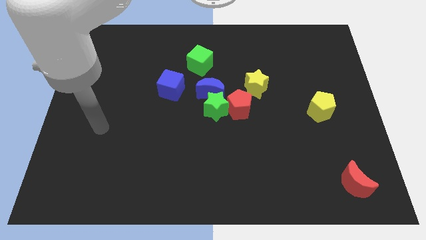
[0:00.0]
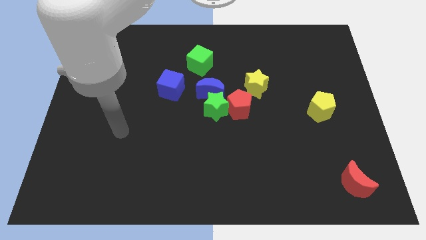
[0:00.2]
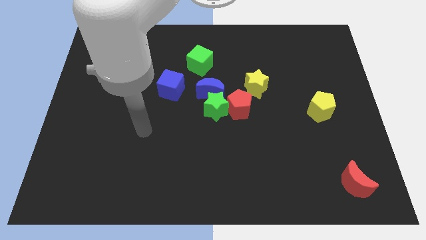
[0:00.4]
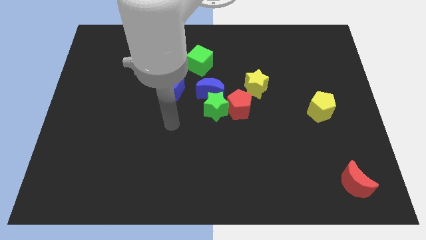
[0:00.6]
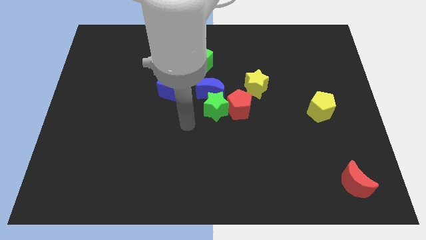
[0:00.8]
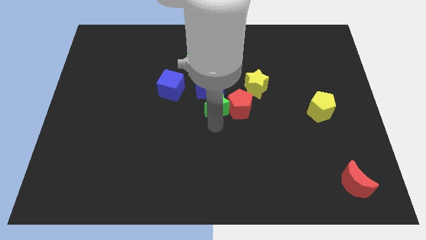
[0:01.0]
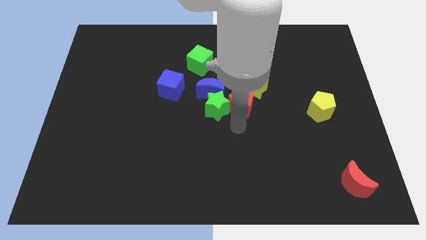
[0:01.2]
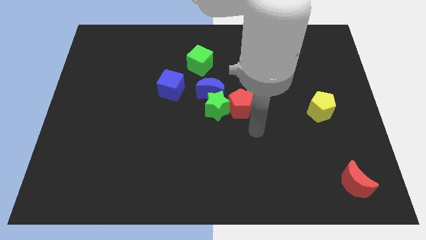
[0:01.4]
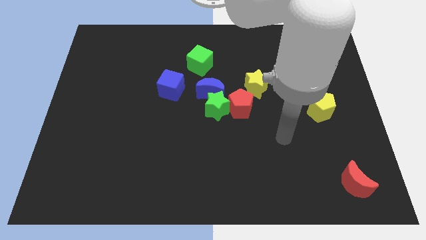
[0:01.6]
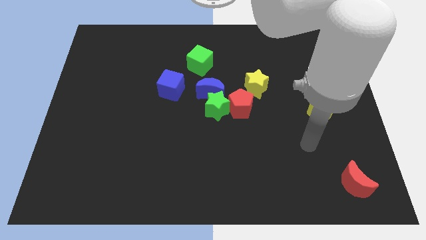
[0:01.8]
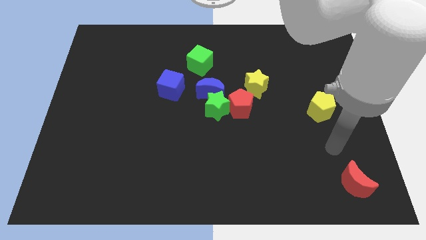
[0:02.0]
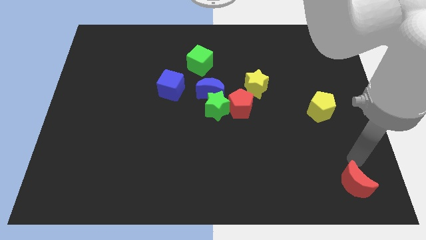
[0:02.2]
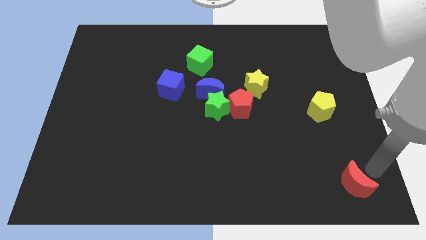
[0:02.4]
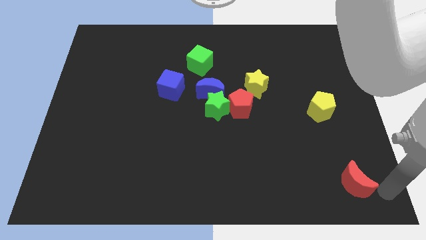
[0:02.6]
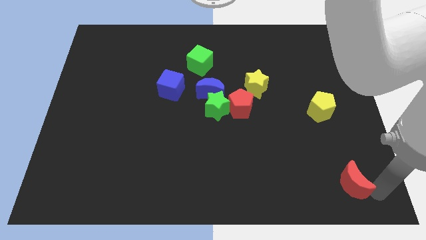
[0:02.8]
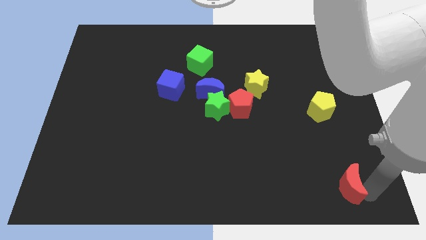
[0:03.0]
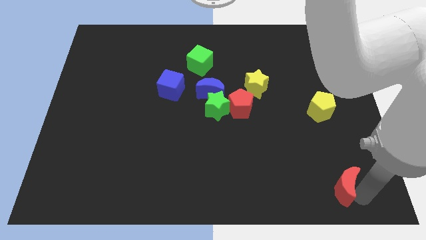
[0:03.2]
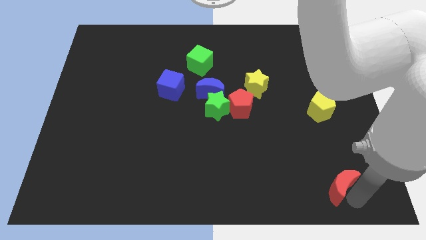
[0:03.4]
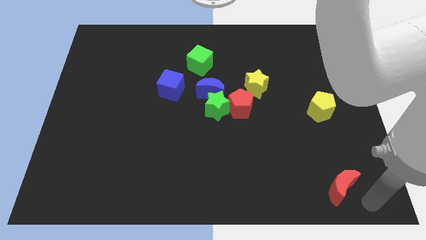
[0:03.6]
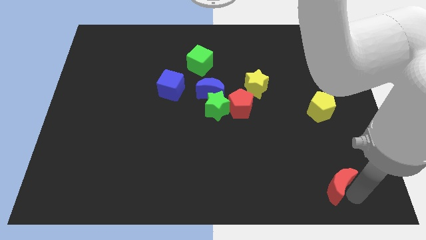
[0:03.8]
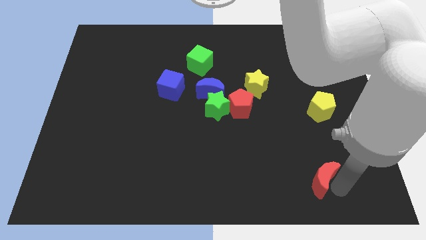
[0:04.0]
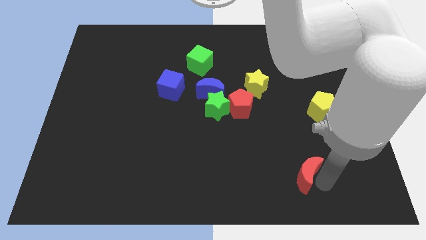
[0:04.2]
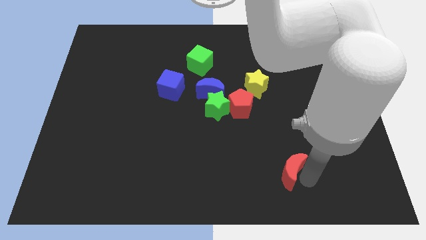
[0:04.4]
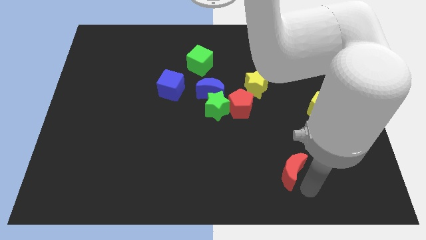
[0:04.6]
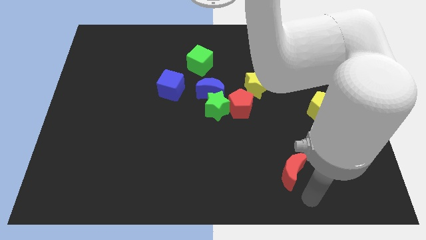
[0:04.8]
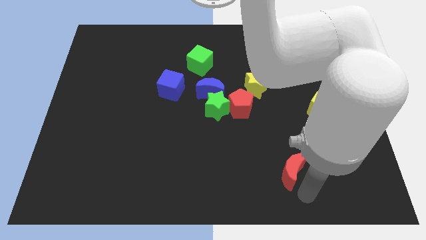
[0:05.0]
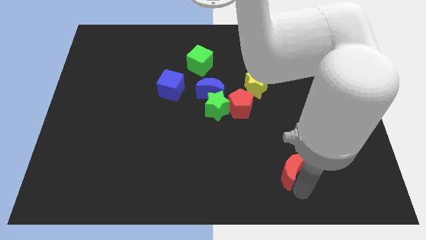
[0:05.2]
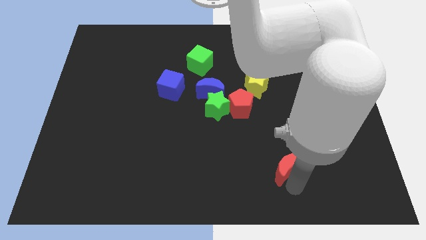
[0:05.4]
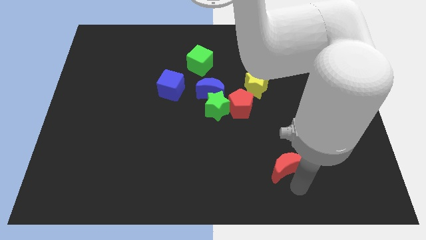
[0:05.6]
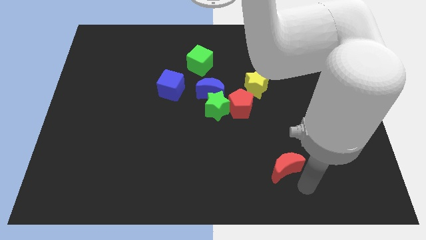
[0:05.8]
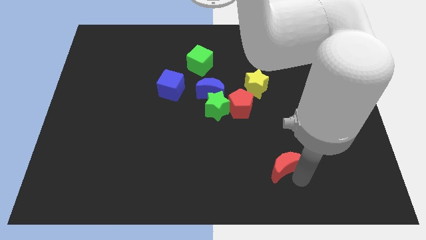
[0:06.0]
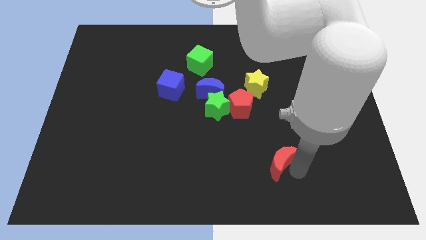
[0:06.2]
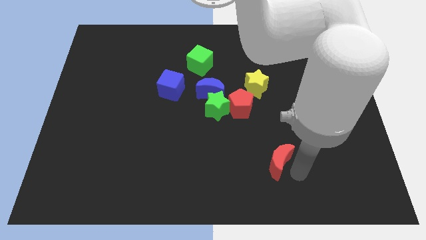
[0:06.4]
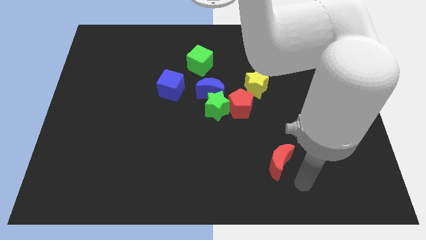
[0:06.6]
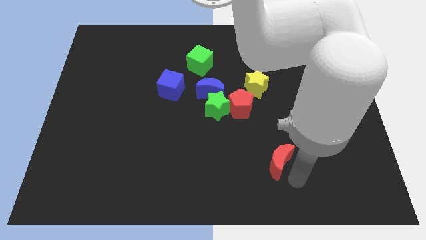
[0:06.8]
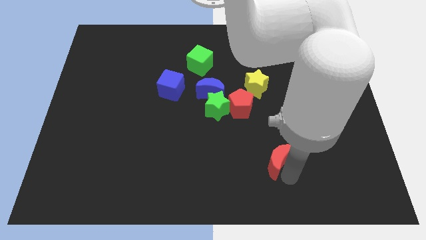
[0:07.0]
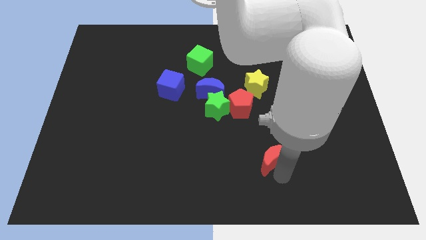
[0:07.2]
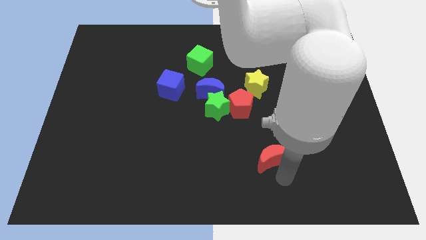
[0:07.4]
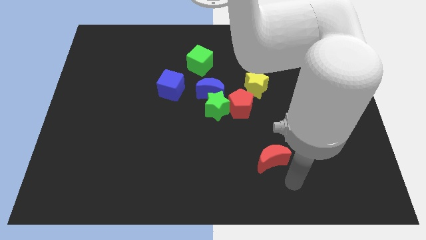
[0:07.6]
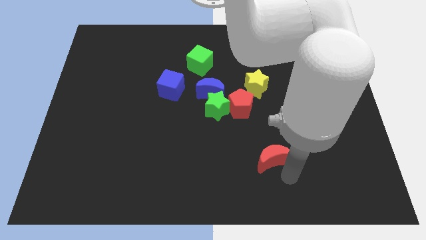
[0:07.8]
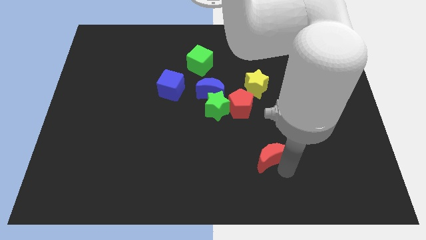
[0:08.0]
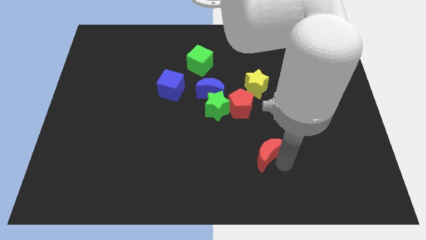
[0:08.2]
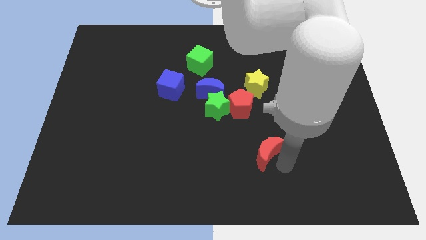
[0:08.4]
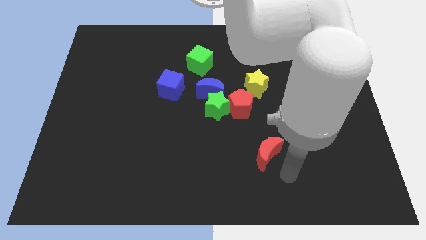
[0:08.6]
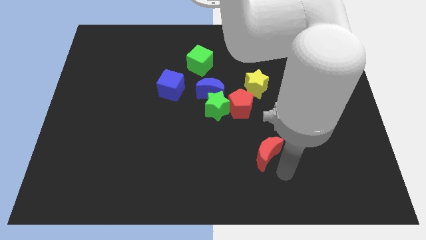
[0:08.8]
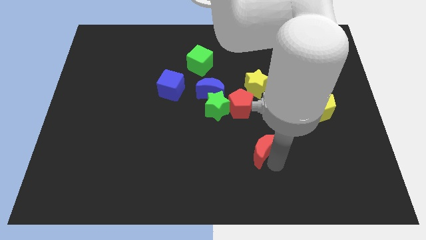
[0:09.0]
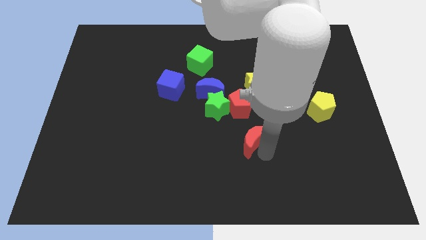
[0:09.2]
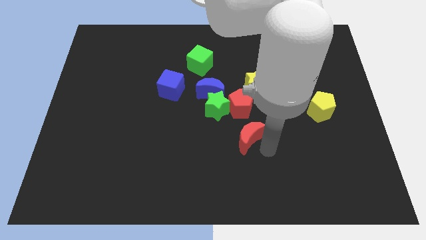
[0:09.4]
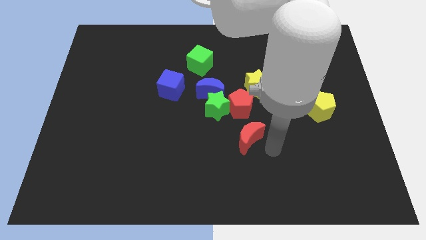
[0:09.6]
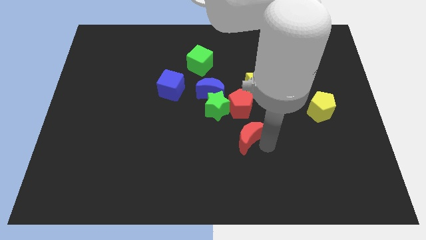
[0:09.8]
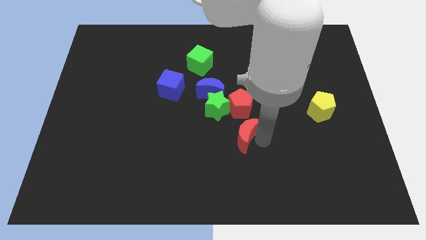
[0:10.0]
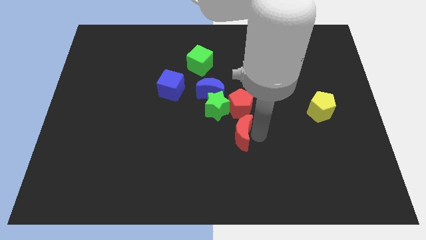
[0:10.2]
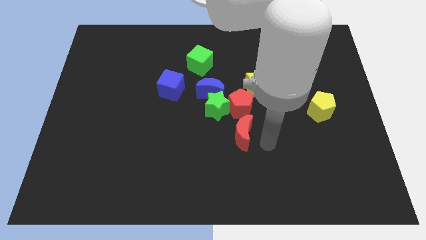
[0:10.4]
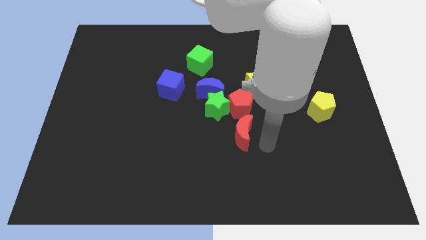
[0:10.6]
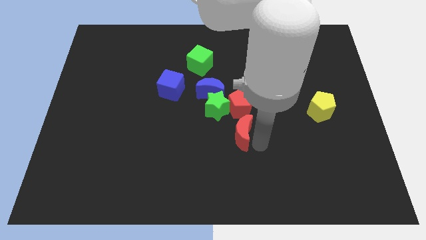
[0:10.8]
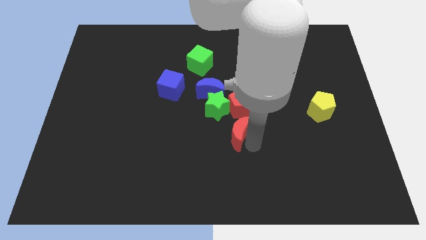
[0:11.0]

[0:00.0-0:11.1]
put the red moon diagonally down and to the left of the red pentagon

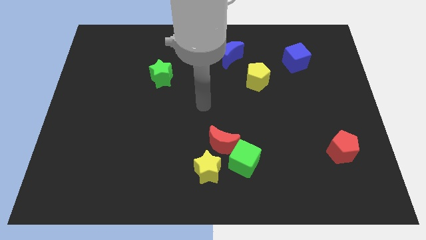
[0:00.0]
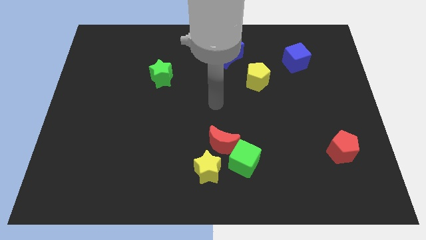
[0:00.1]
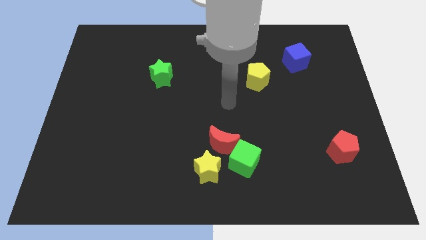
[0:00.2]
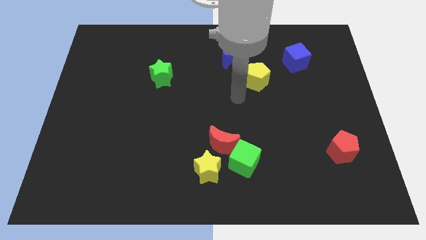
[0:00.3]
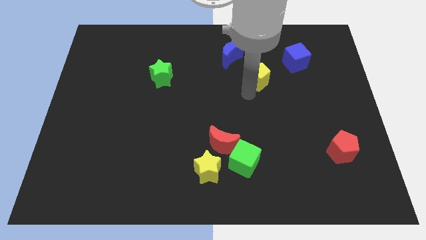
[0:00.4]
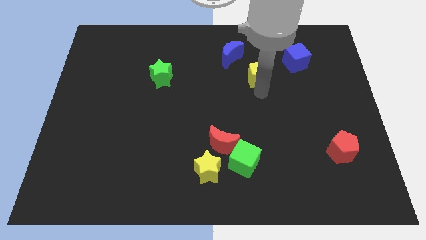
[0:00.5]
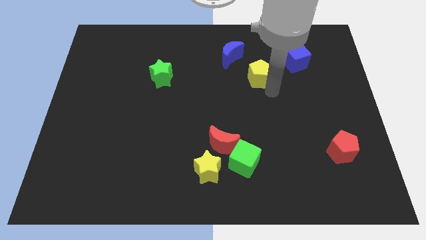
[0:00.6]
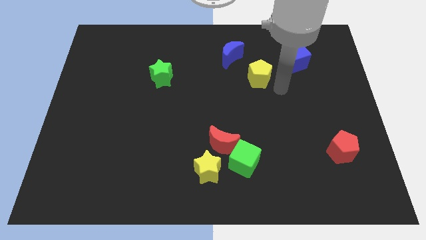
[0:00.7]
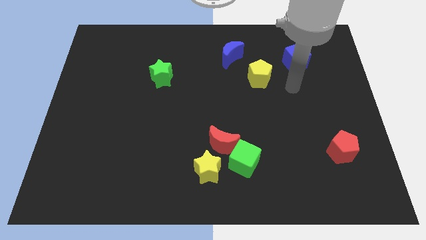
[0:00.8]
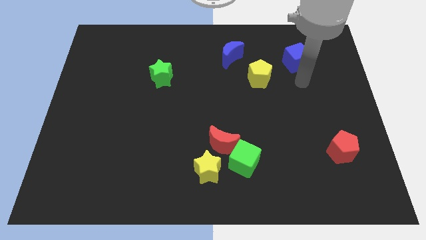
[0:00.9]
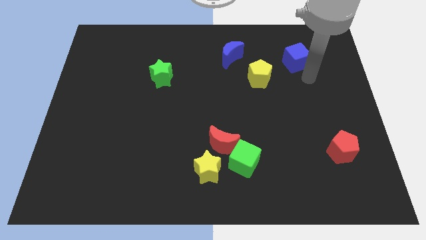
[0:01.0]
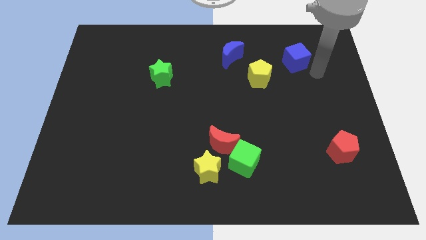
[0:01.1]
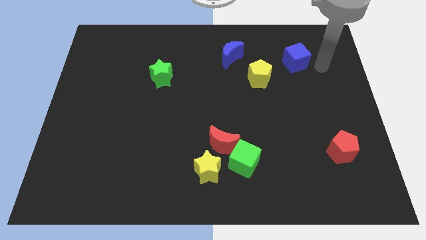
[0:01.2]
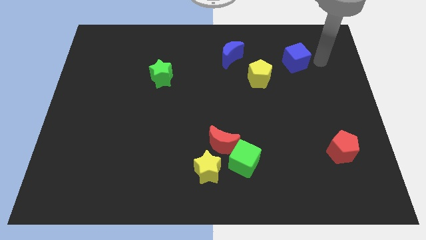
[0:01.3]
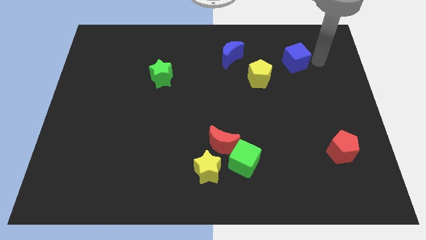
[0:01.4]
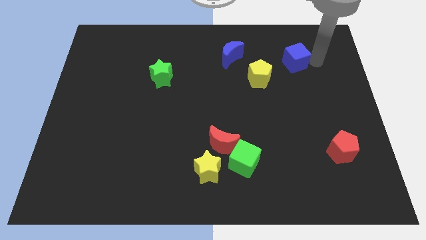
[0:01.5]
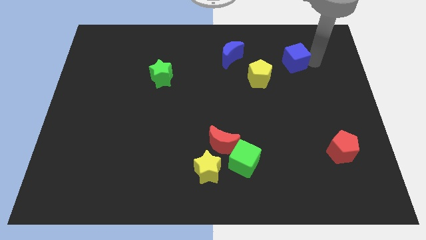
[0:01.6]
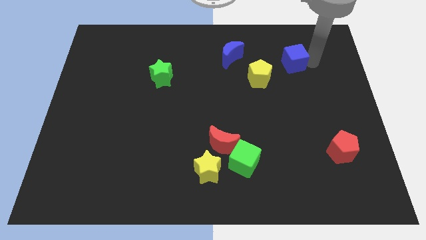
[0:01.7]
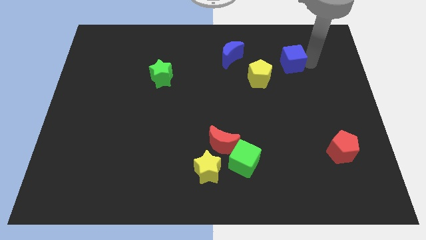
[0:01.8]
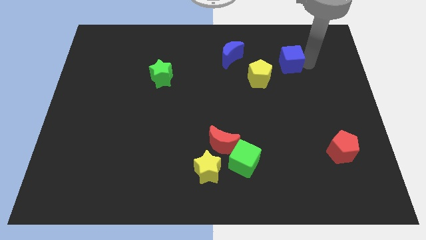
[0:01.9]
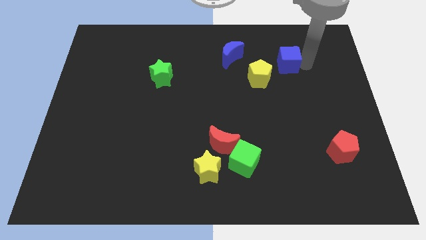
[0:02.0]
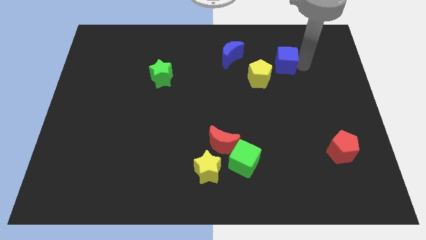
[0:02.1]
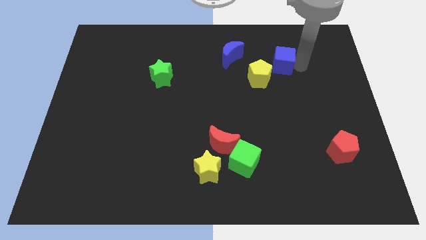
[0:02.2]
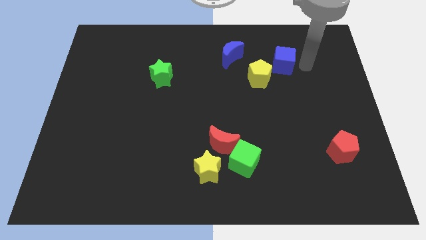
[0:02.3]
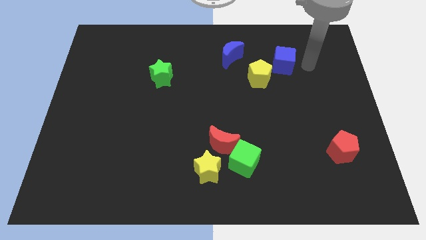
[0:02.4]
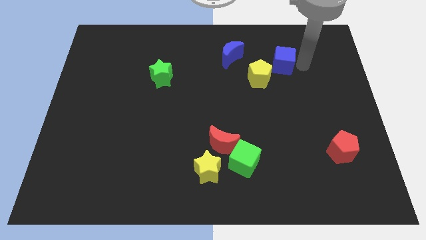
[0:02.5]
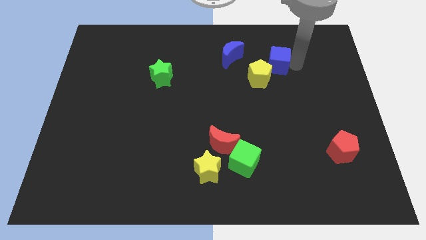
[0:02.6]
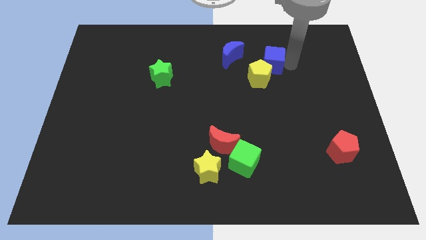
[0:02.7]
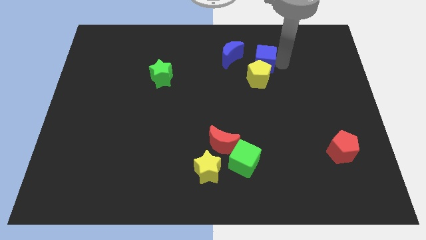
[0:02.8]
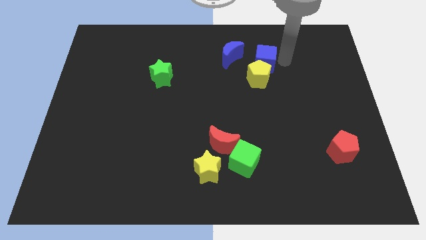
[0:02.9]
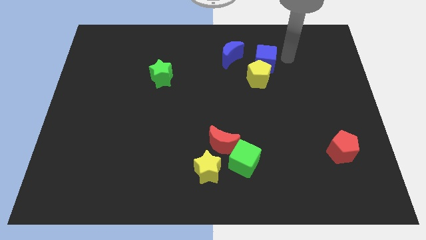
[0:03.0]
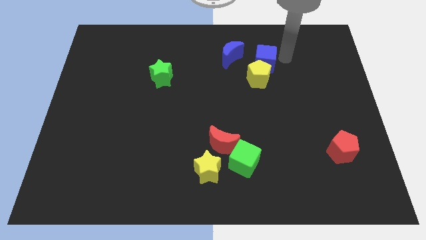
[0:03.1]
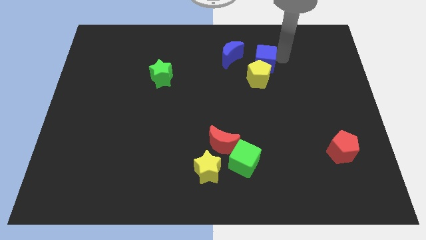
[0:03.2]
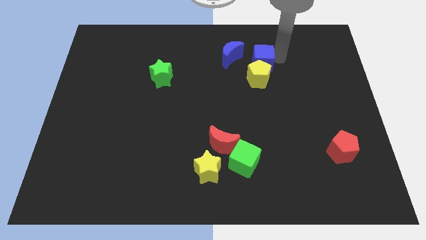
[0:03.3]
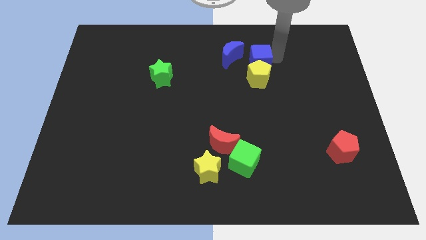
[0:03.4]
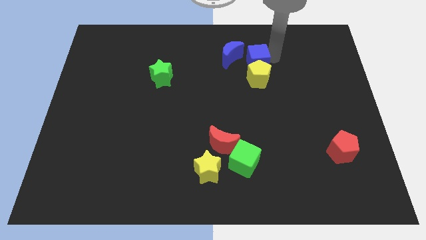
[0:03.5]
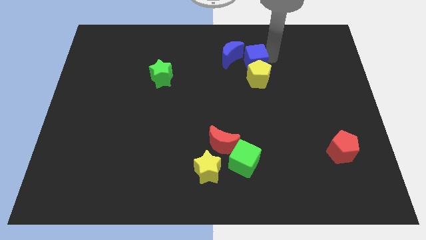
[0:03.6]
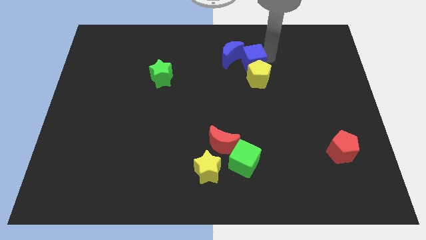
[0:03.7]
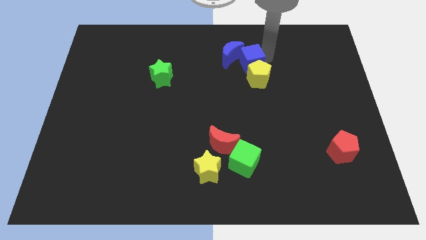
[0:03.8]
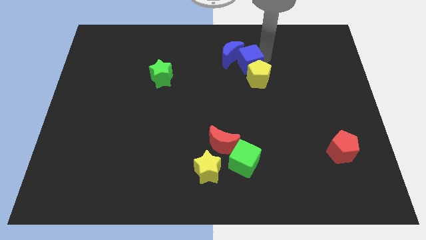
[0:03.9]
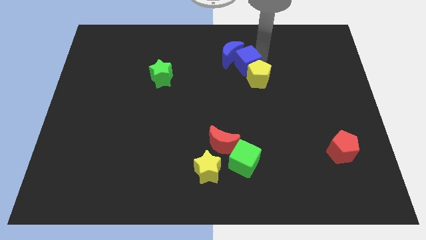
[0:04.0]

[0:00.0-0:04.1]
slide the blue cube below the blue moon
